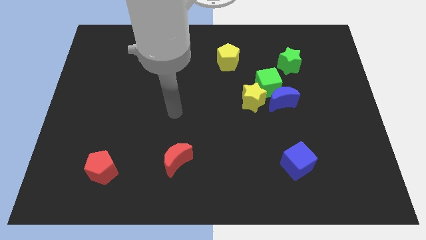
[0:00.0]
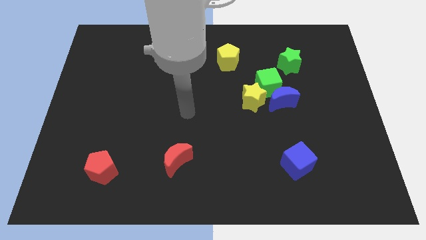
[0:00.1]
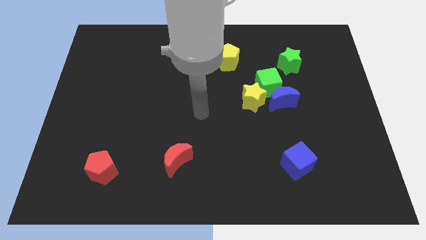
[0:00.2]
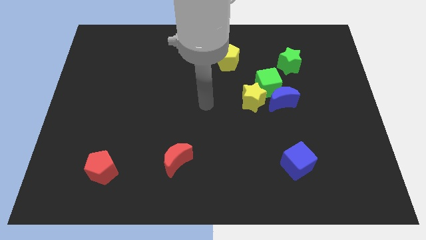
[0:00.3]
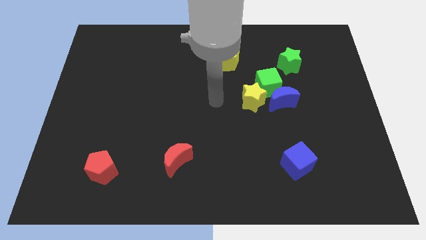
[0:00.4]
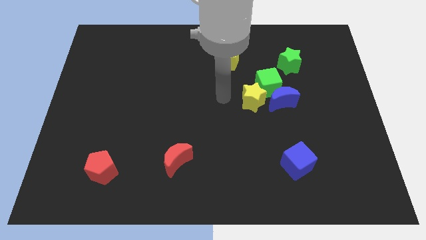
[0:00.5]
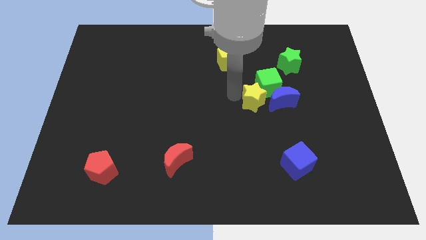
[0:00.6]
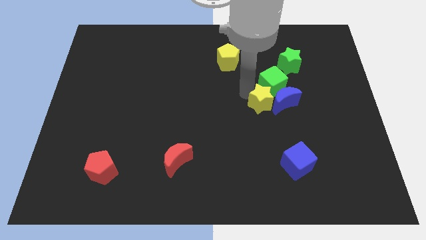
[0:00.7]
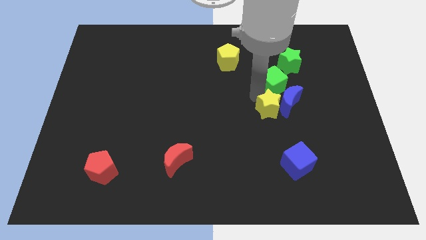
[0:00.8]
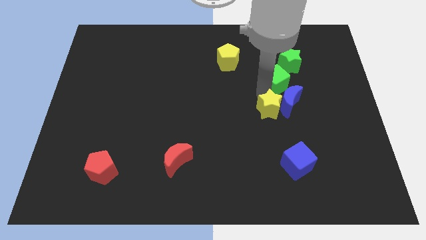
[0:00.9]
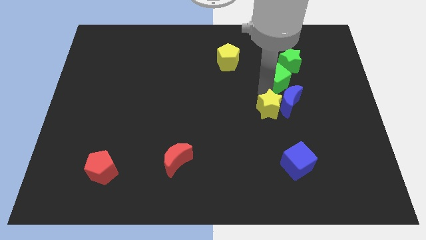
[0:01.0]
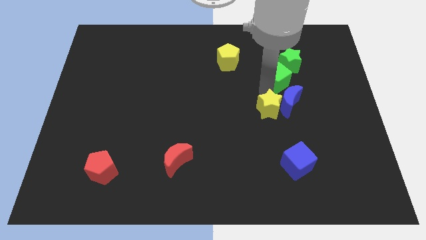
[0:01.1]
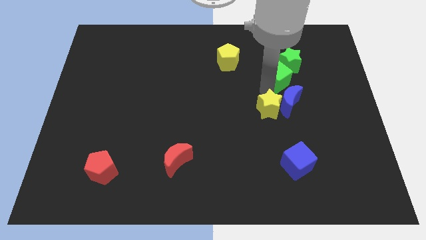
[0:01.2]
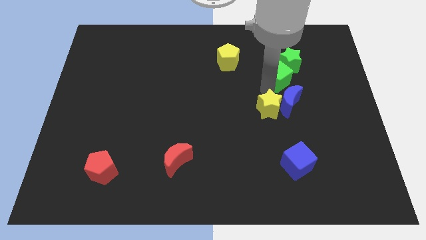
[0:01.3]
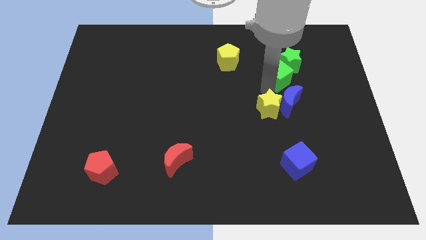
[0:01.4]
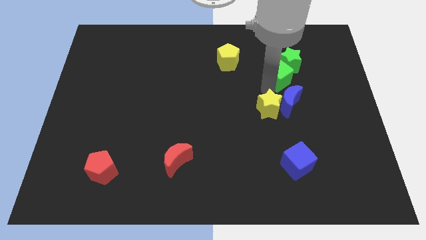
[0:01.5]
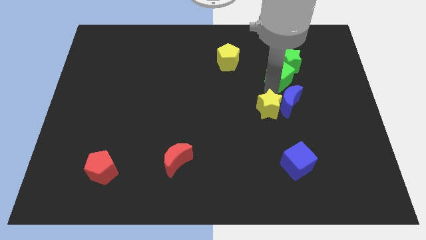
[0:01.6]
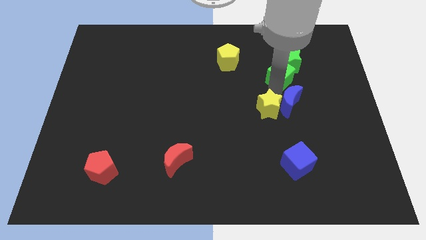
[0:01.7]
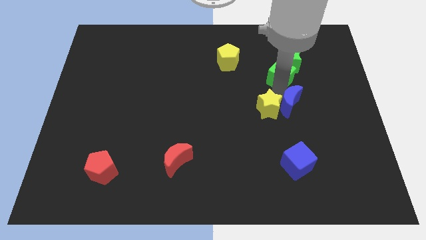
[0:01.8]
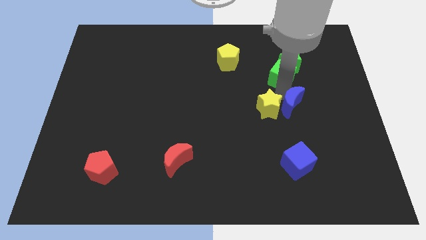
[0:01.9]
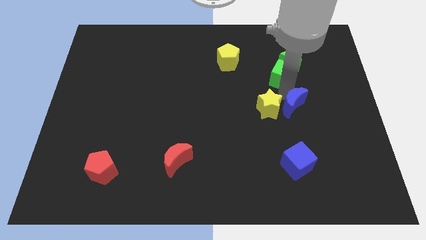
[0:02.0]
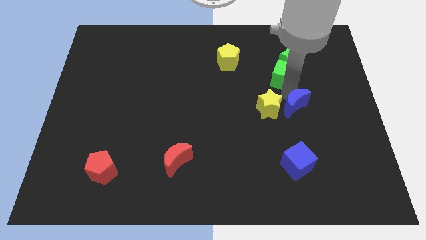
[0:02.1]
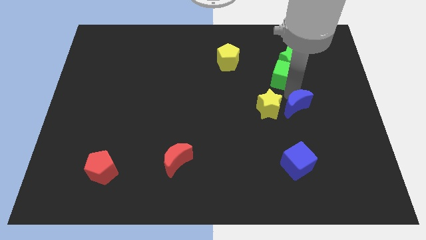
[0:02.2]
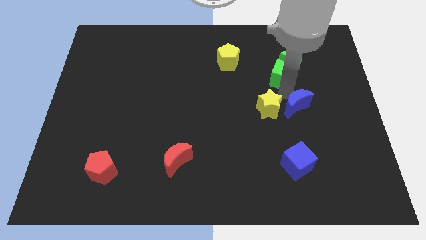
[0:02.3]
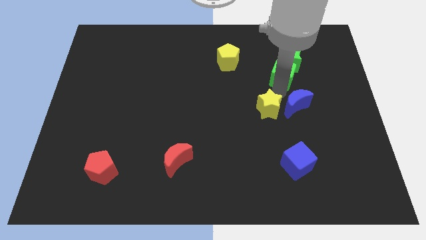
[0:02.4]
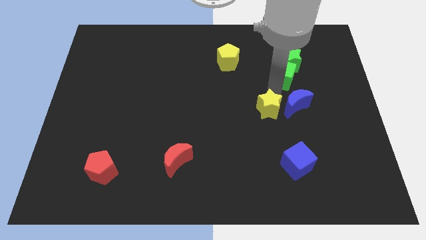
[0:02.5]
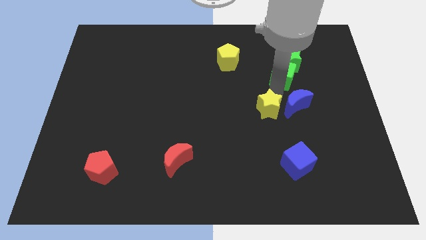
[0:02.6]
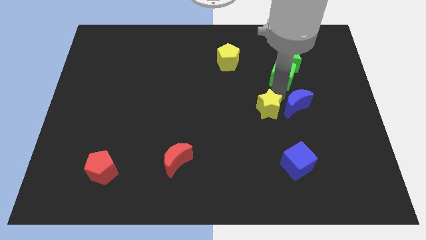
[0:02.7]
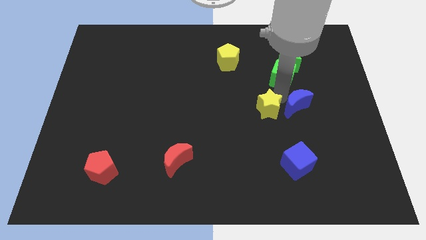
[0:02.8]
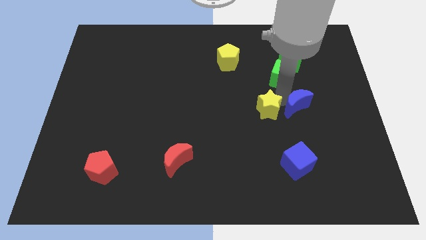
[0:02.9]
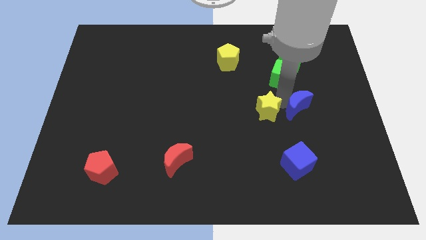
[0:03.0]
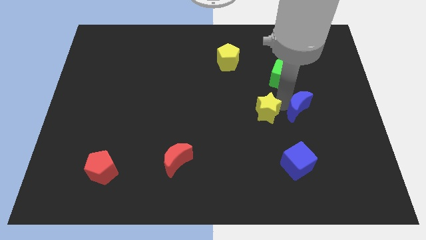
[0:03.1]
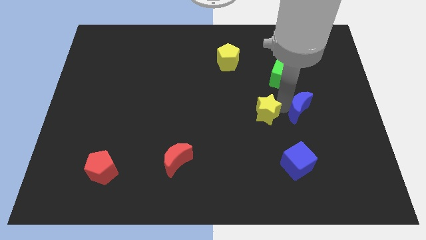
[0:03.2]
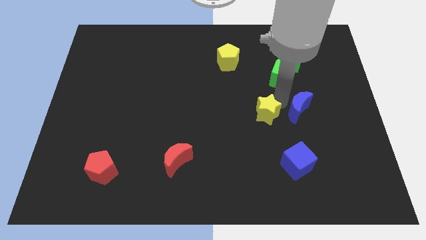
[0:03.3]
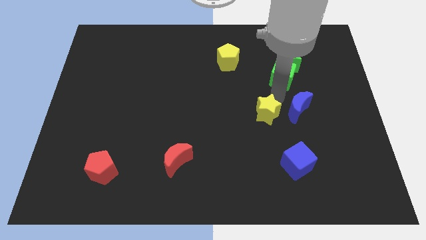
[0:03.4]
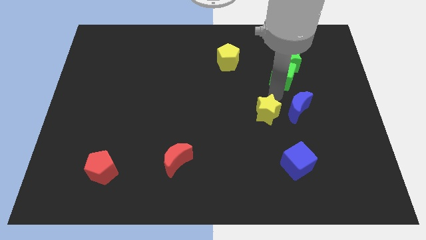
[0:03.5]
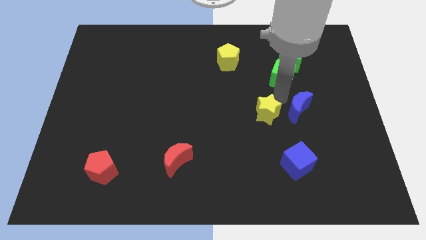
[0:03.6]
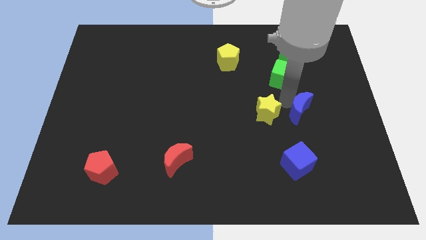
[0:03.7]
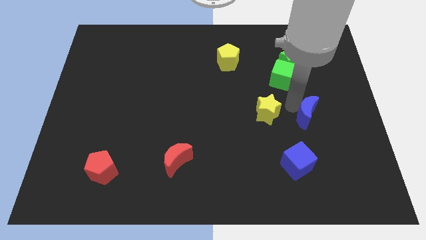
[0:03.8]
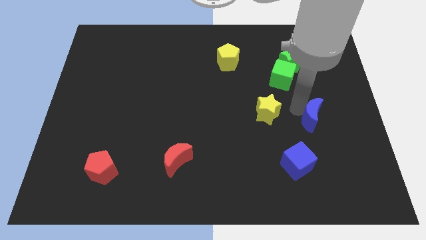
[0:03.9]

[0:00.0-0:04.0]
move the blue moon away from the green cube and yellow star

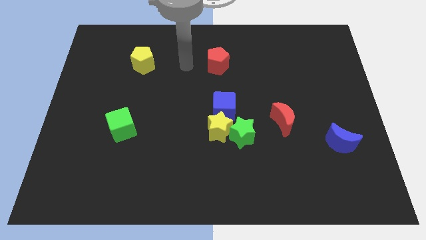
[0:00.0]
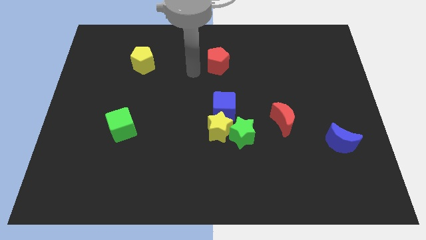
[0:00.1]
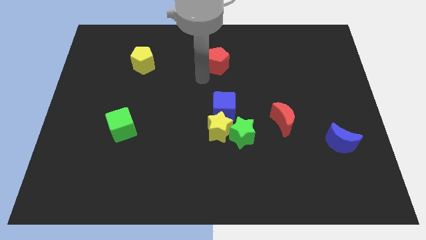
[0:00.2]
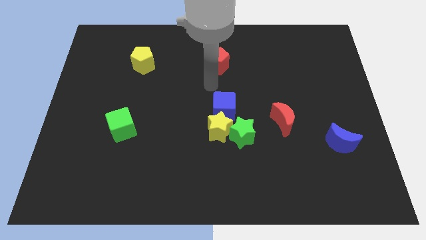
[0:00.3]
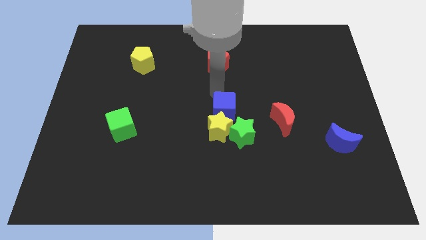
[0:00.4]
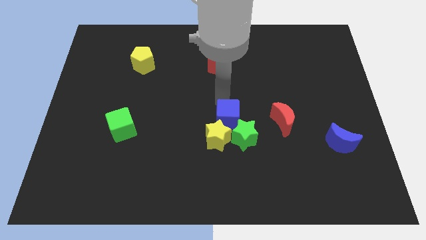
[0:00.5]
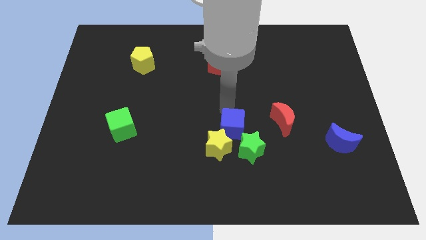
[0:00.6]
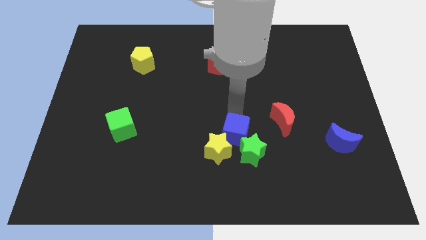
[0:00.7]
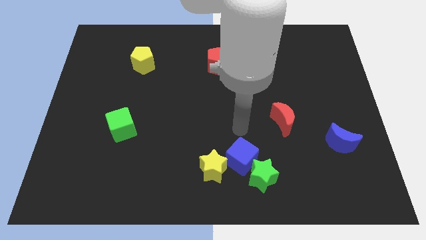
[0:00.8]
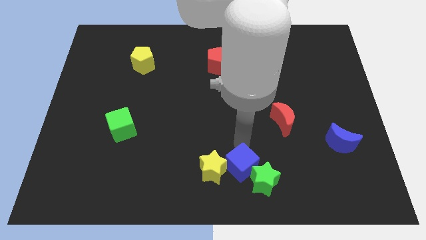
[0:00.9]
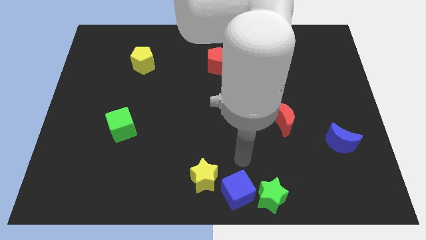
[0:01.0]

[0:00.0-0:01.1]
separate the yellow star from the green star and blue cube

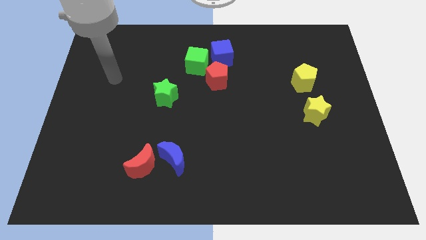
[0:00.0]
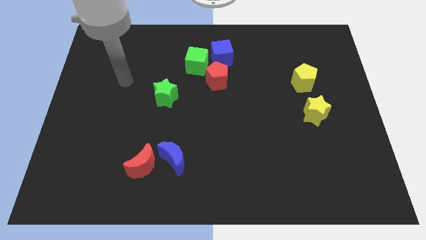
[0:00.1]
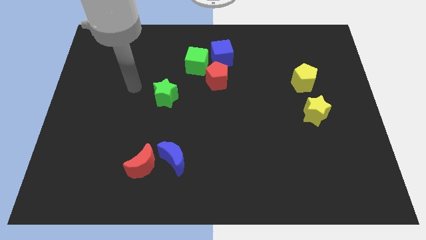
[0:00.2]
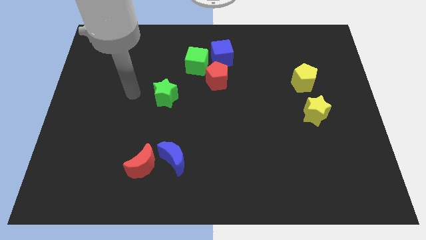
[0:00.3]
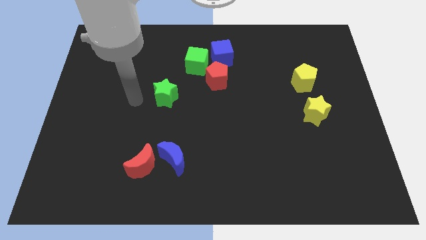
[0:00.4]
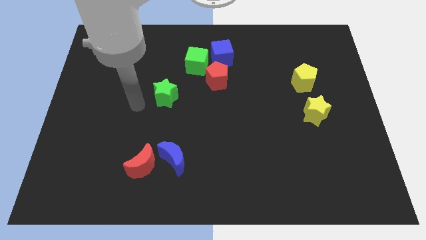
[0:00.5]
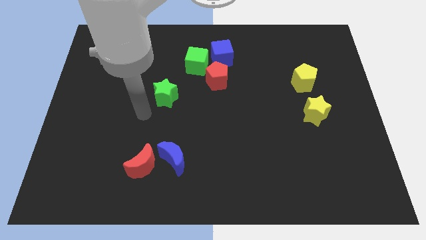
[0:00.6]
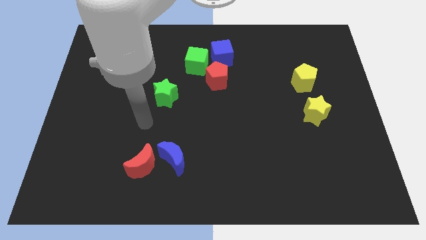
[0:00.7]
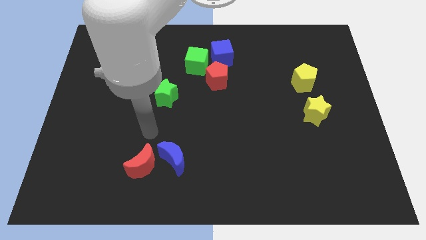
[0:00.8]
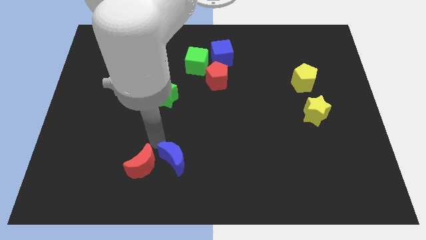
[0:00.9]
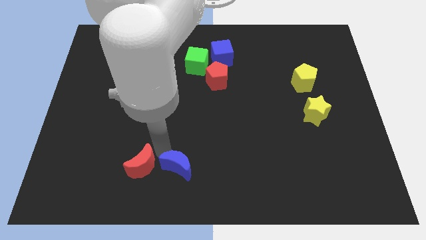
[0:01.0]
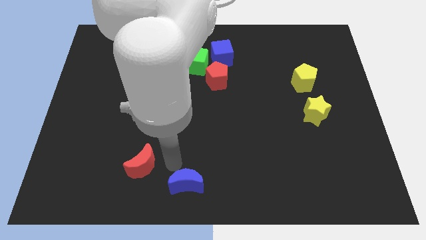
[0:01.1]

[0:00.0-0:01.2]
move the red moon away from the blue moon

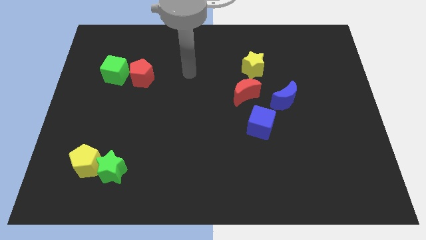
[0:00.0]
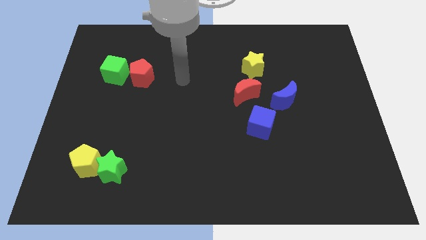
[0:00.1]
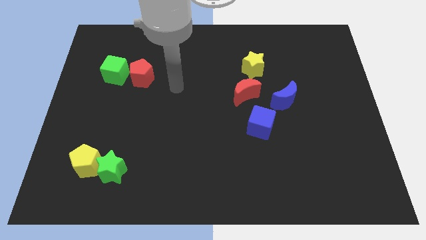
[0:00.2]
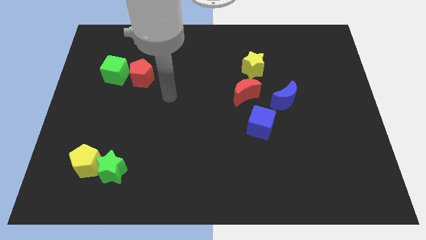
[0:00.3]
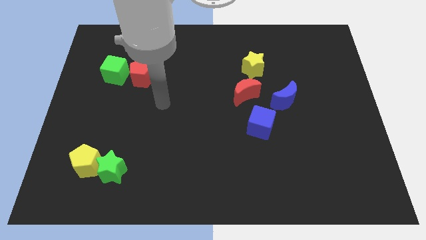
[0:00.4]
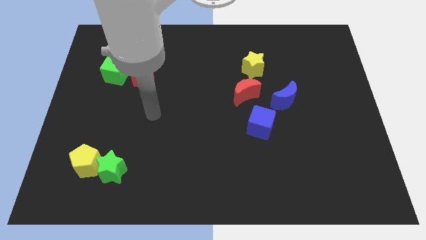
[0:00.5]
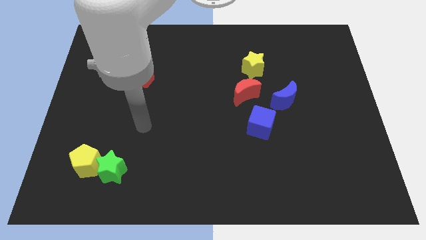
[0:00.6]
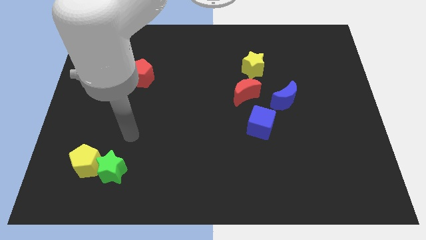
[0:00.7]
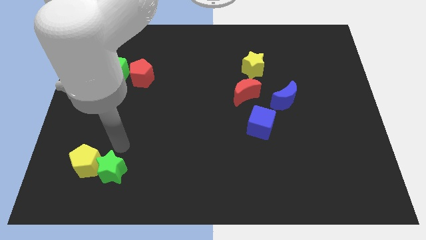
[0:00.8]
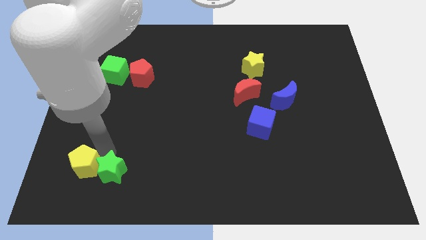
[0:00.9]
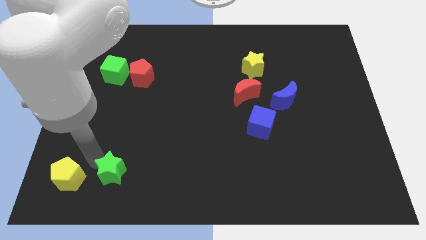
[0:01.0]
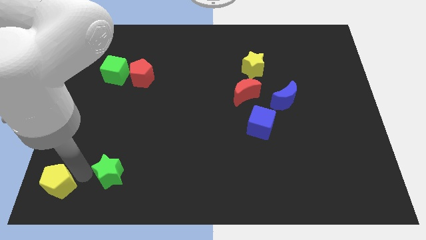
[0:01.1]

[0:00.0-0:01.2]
move the green star away from the yellow pentagon

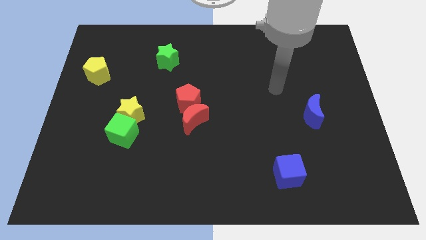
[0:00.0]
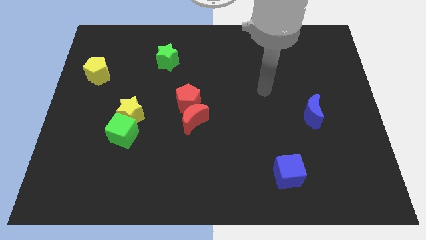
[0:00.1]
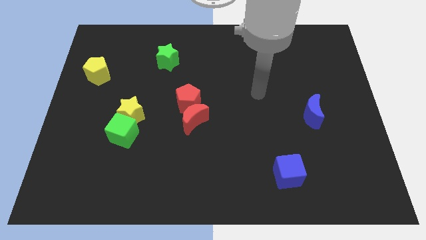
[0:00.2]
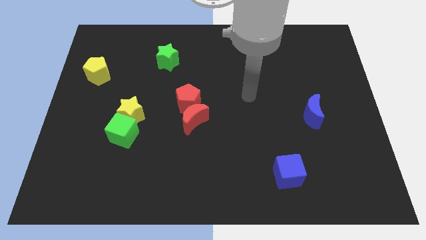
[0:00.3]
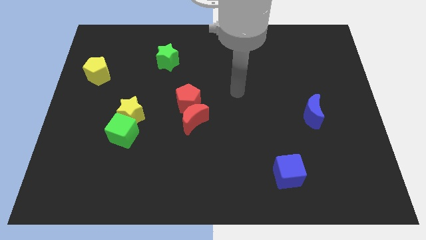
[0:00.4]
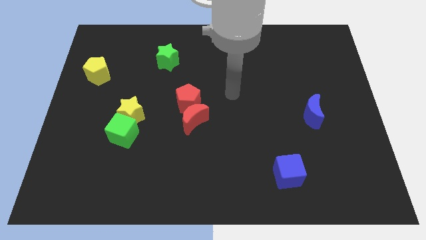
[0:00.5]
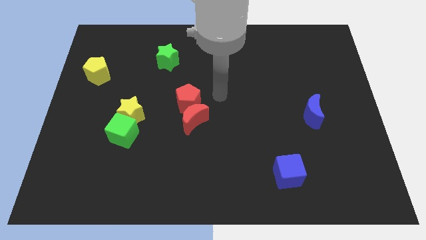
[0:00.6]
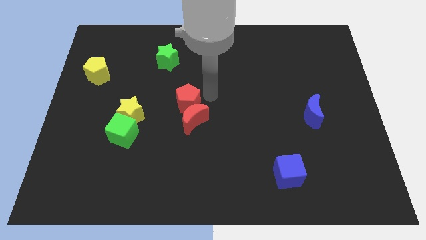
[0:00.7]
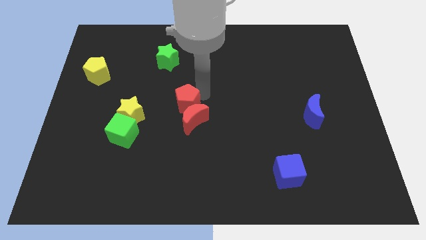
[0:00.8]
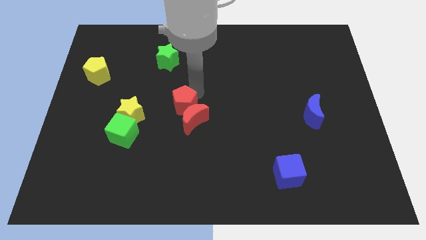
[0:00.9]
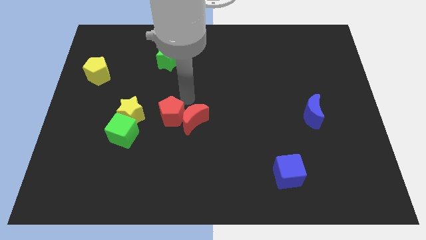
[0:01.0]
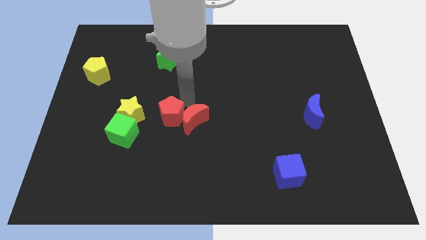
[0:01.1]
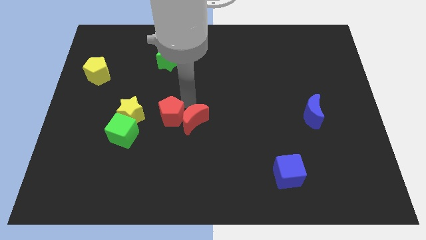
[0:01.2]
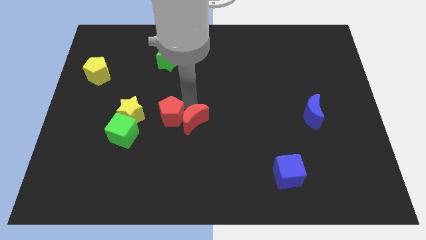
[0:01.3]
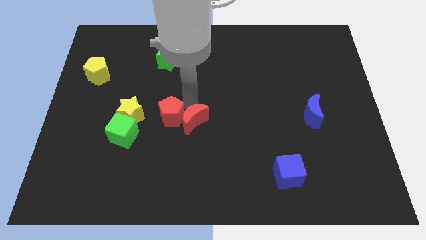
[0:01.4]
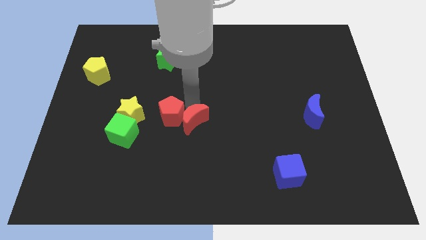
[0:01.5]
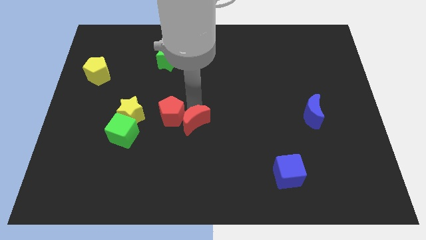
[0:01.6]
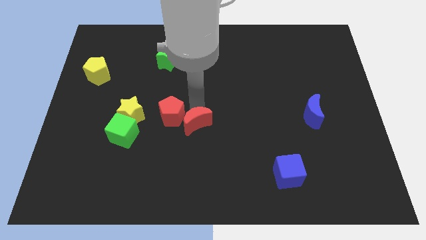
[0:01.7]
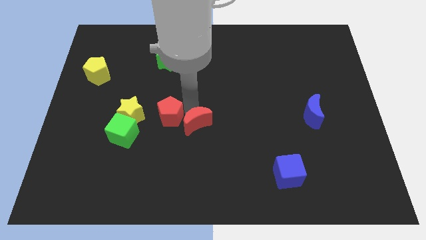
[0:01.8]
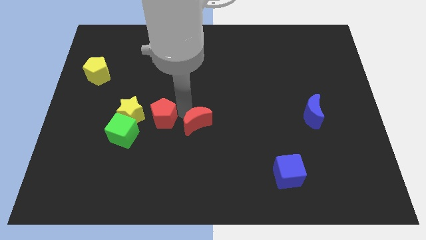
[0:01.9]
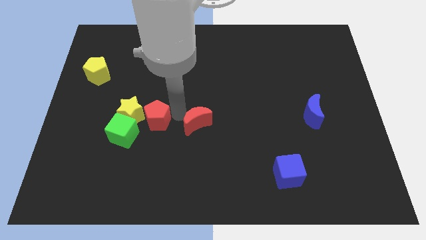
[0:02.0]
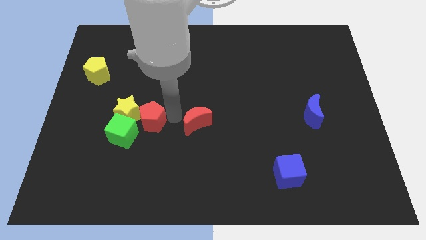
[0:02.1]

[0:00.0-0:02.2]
separate the red moon from the red pentagon
